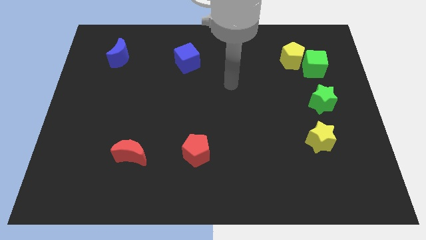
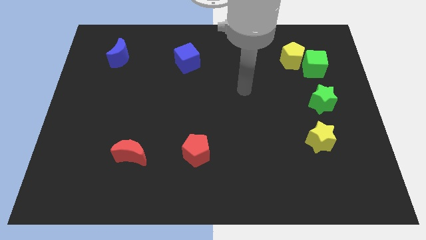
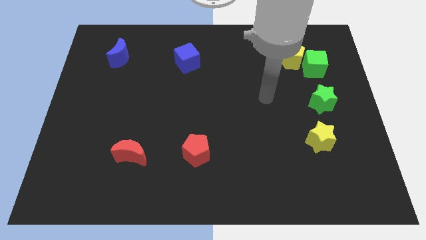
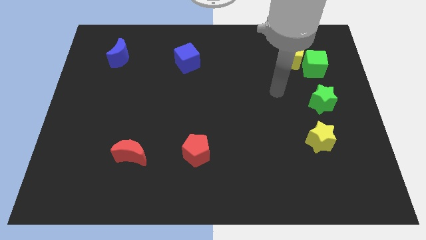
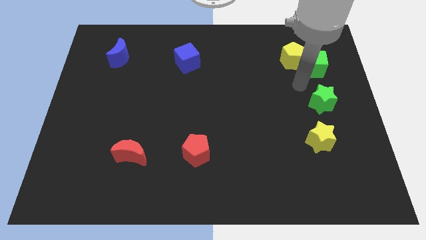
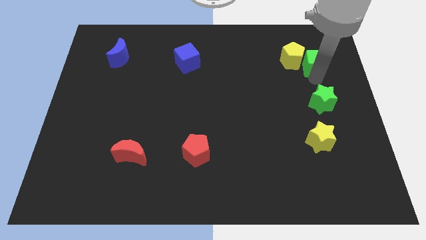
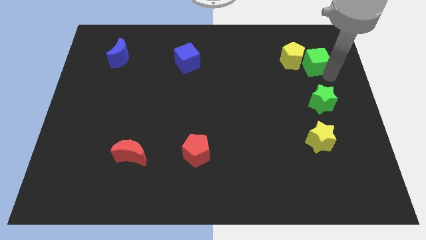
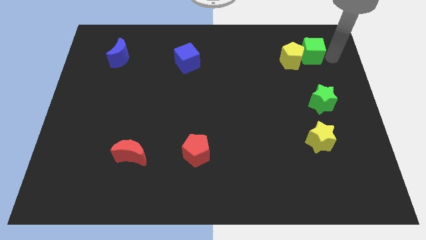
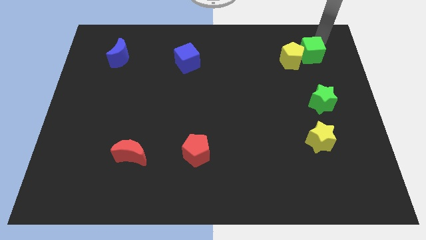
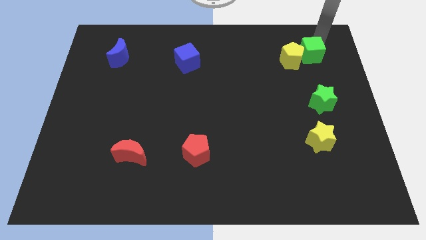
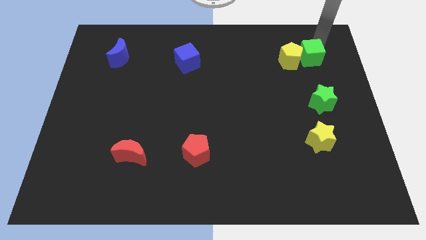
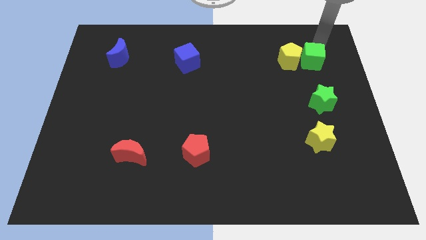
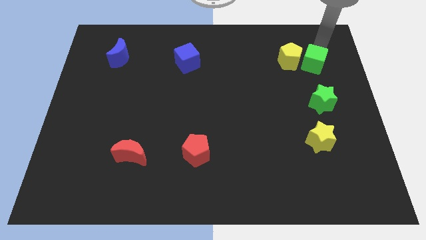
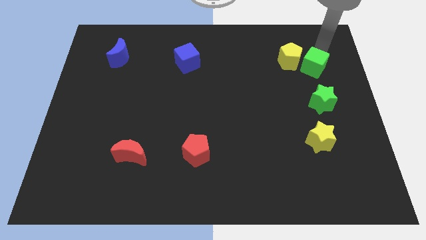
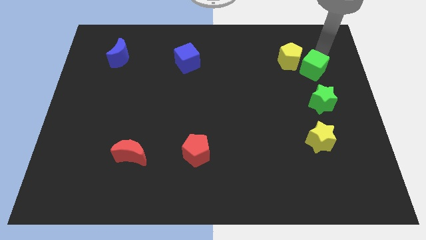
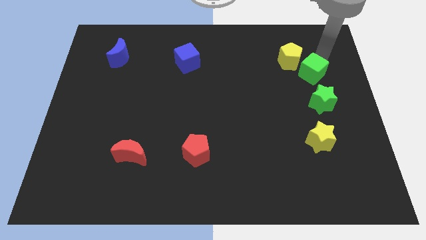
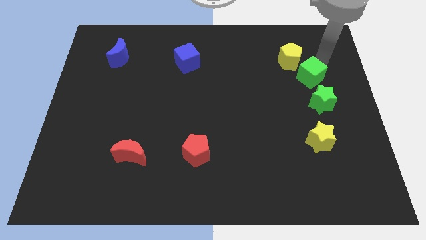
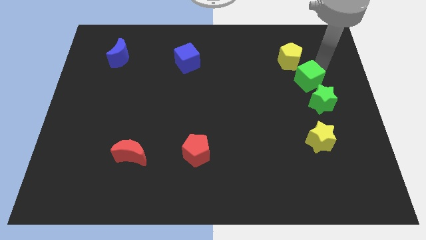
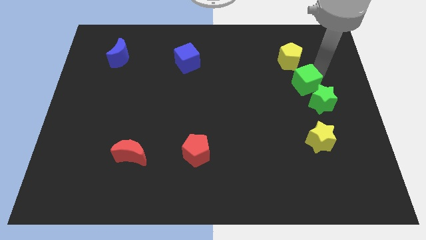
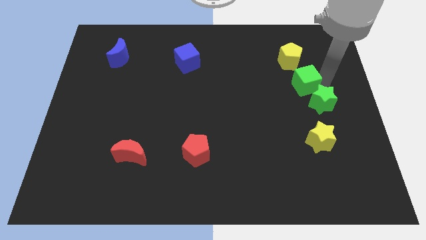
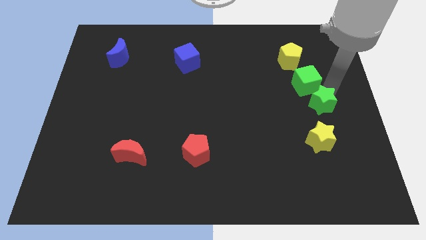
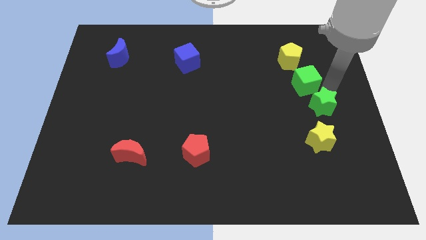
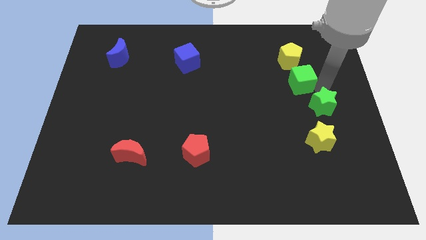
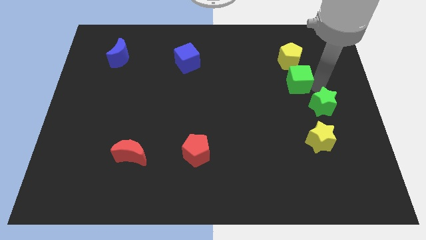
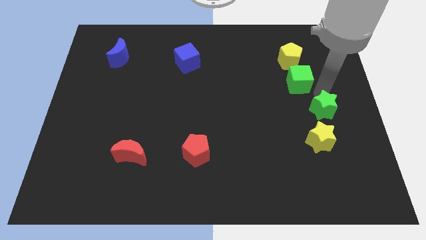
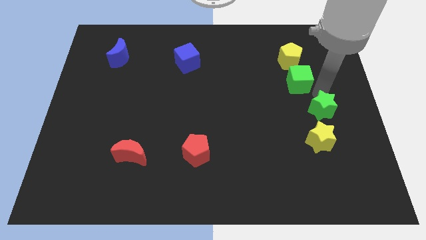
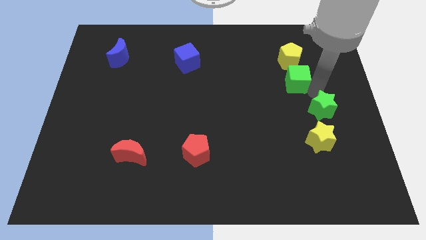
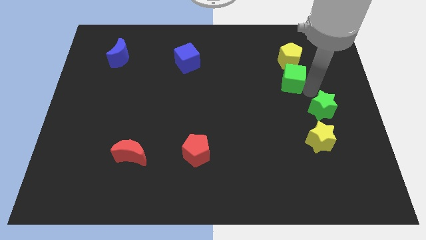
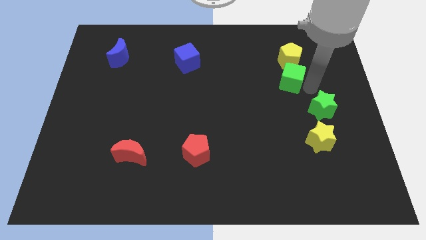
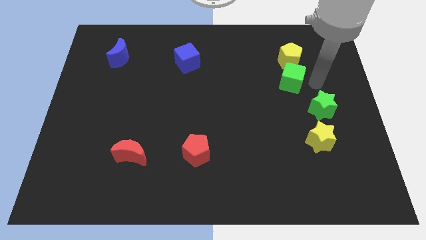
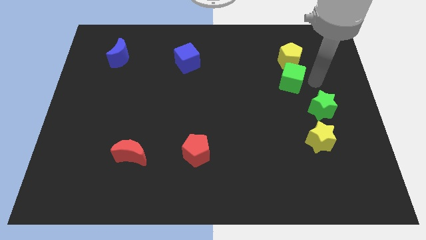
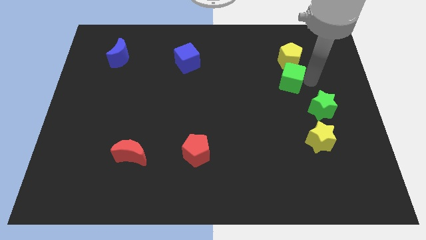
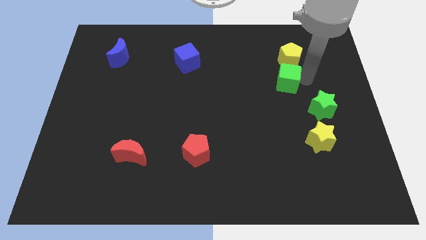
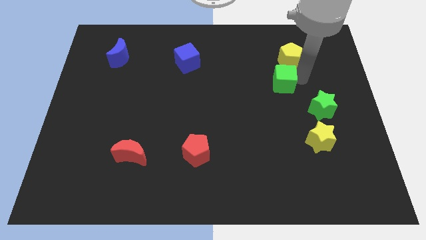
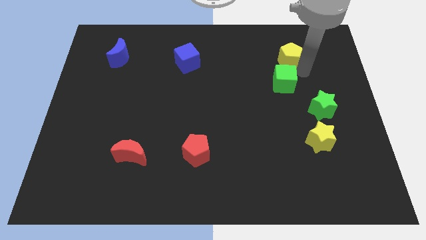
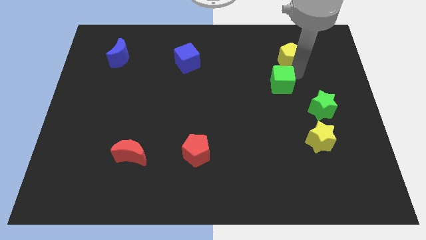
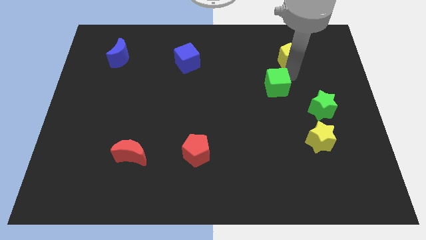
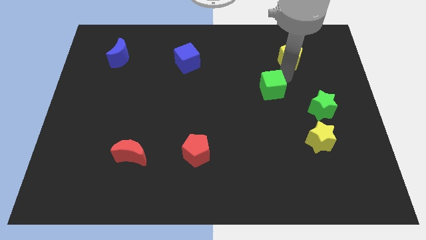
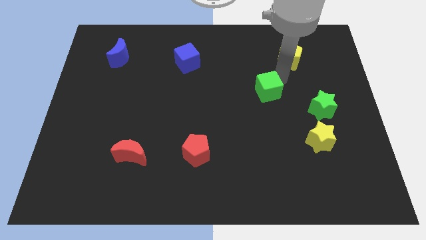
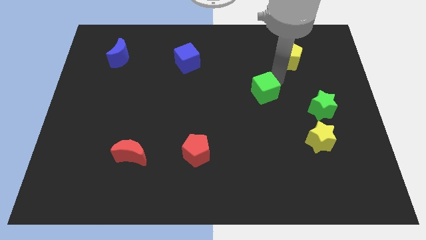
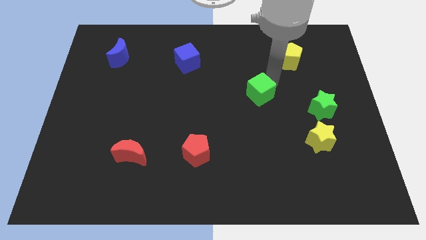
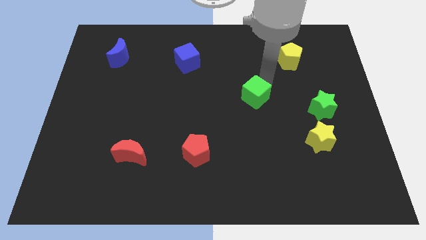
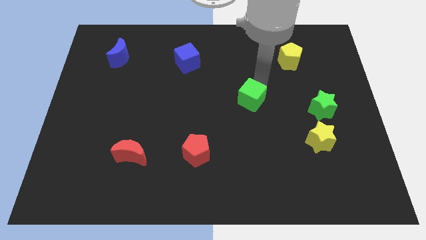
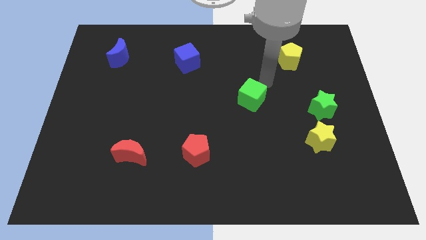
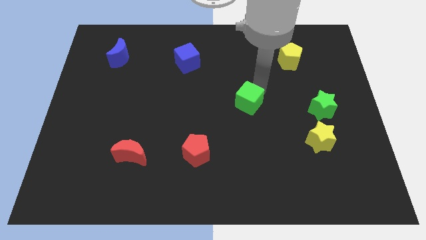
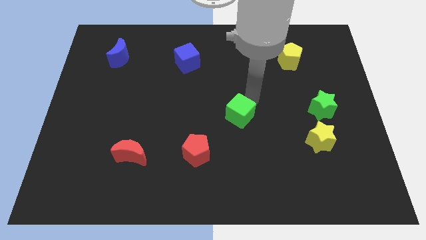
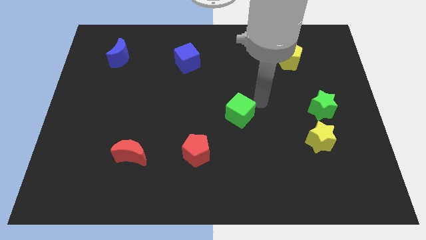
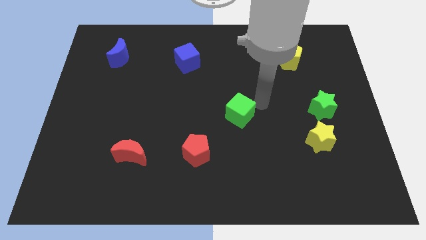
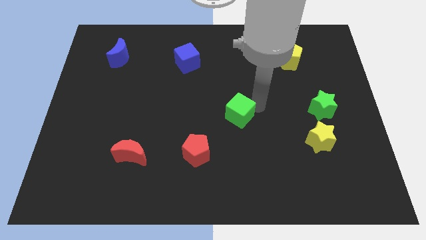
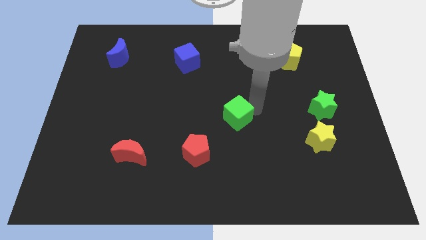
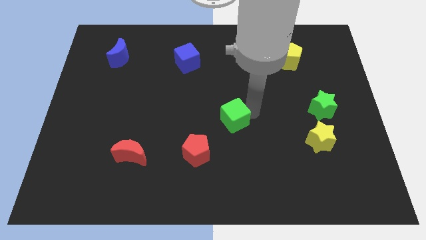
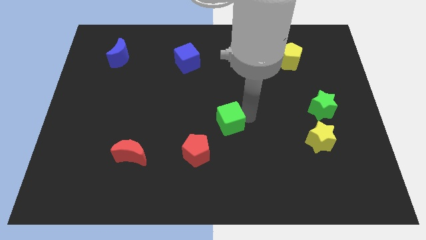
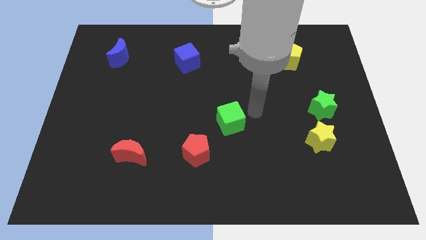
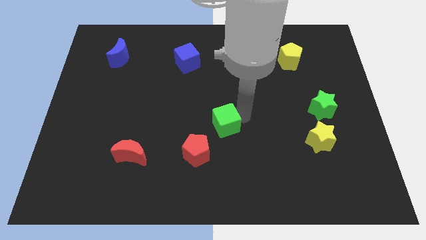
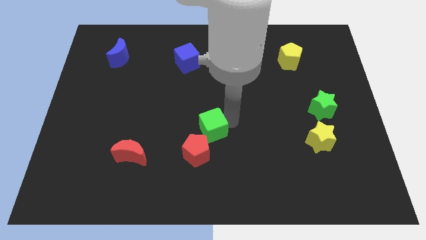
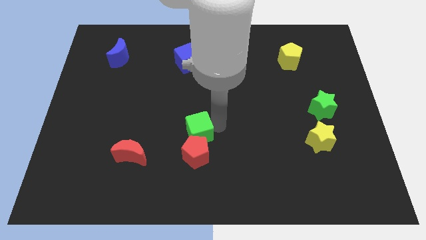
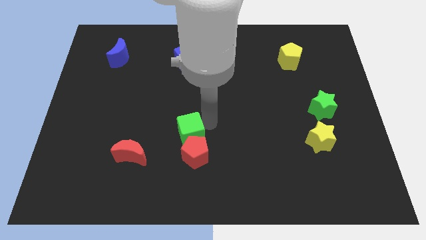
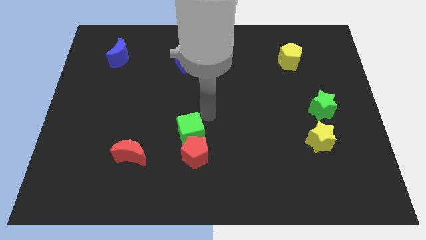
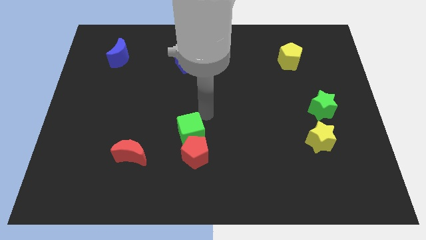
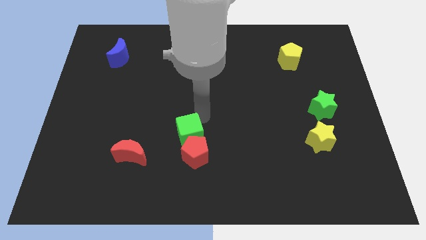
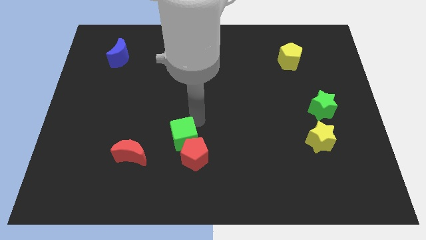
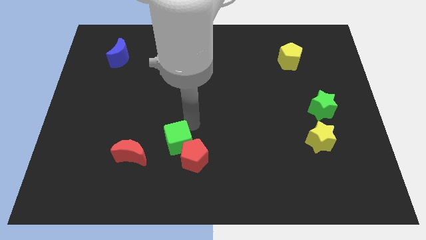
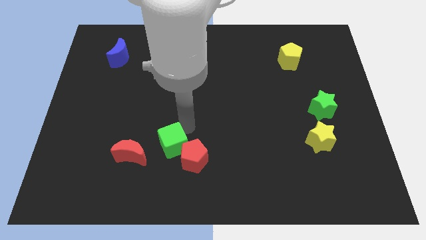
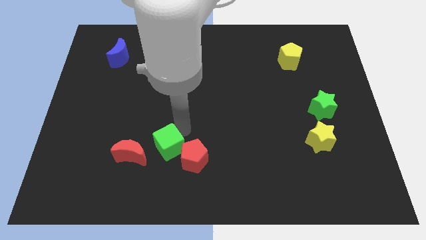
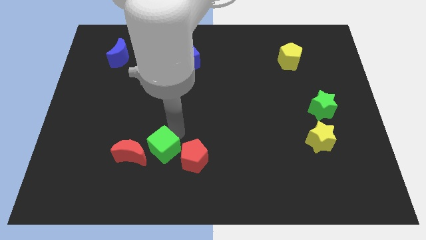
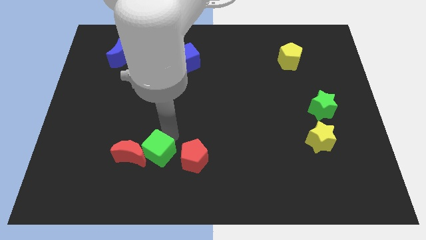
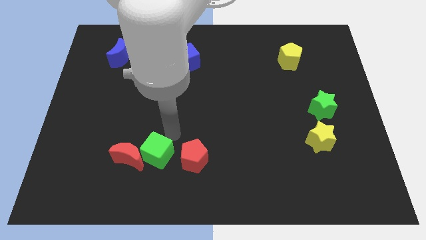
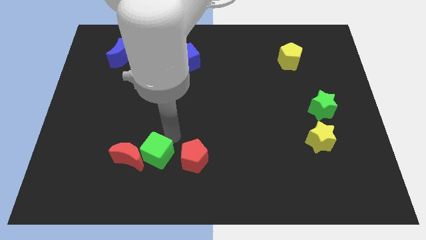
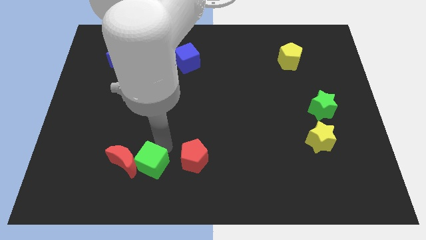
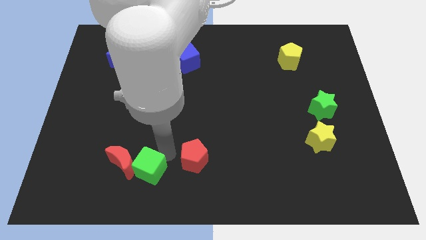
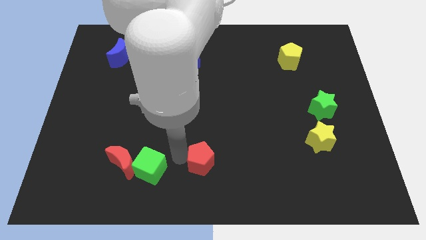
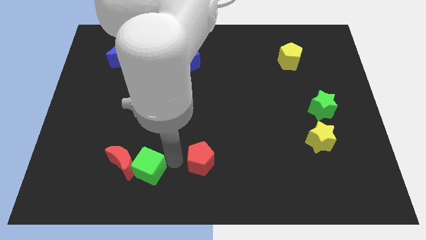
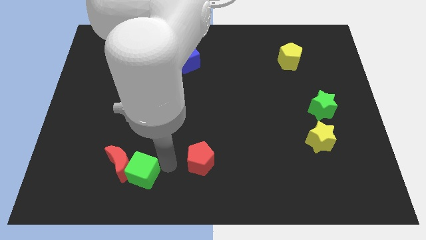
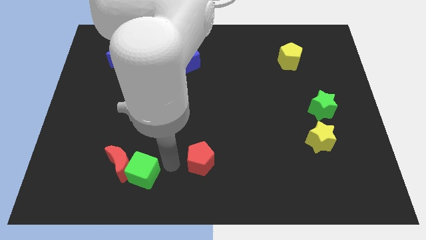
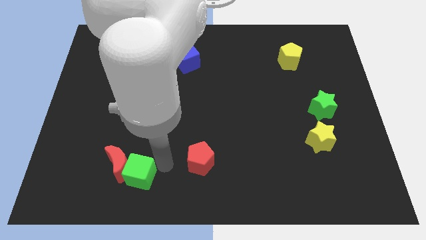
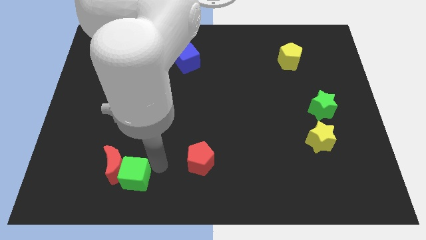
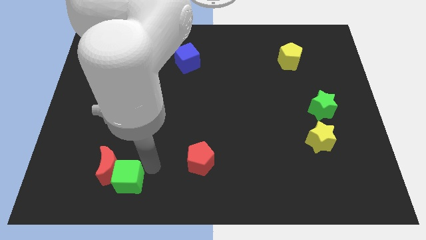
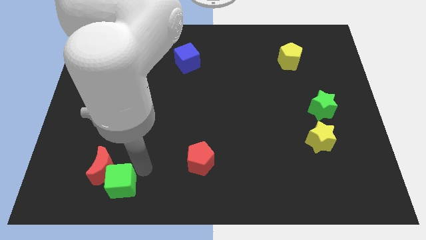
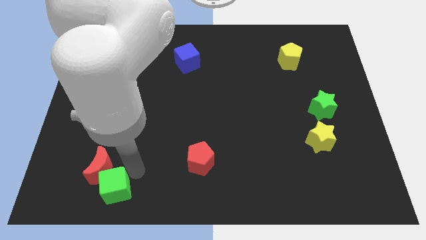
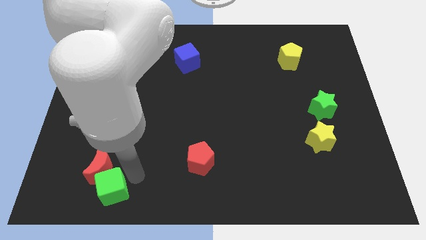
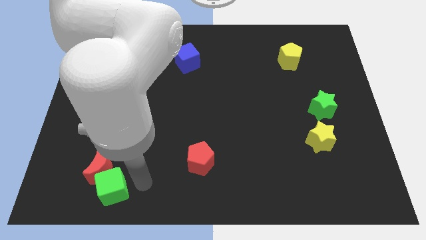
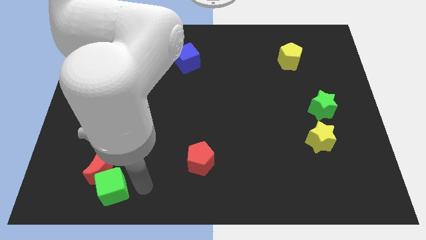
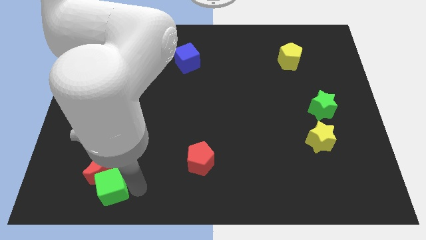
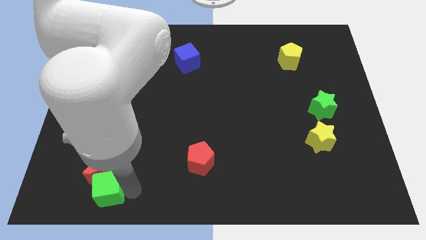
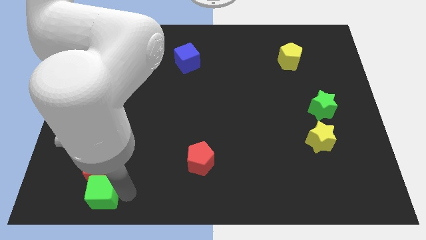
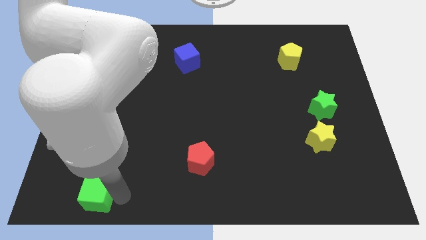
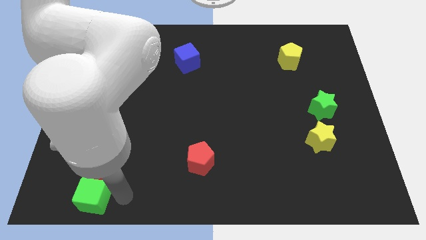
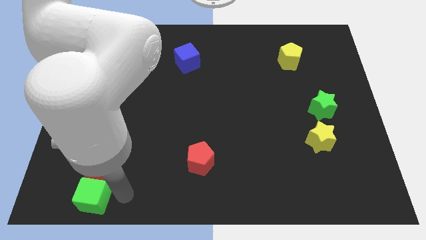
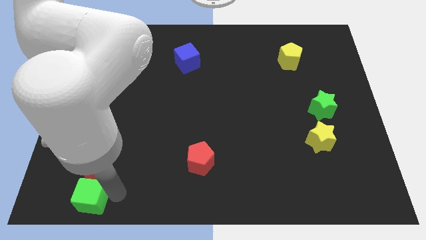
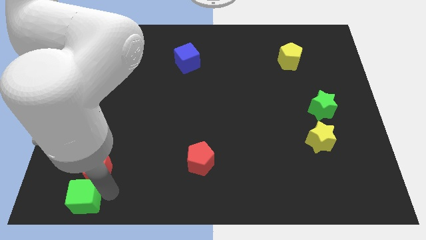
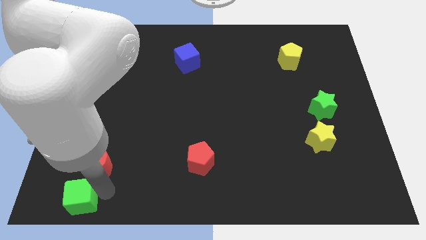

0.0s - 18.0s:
slide the green cube to the bottom left corner
